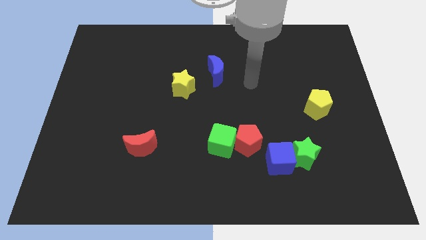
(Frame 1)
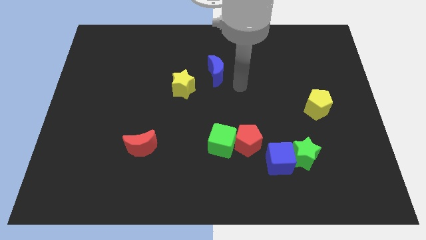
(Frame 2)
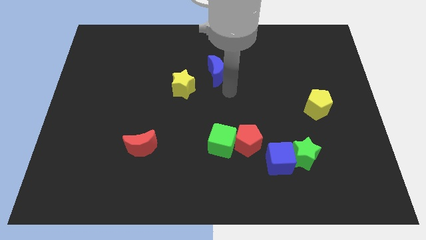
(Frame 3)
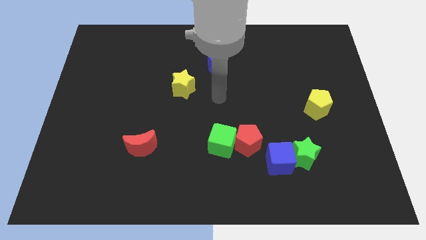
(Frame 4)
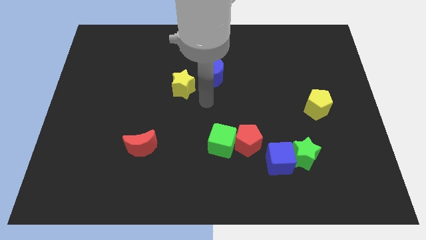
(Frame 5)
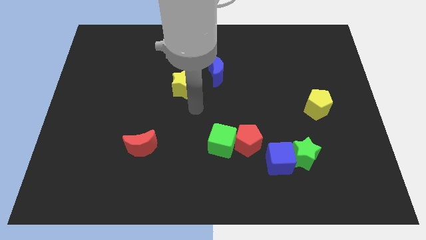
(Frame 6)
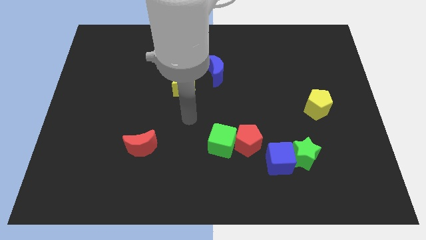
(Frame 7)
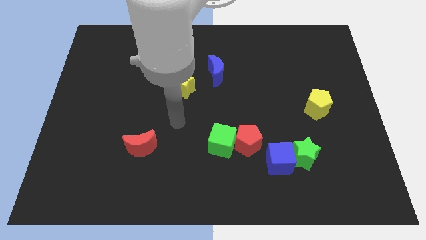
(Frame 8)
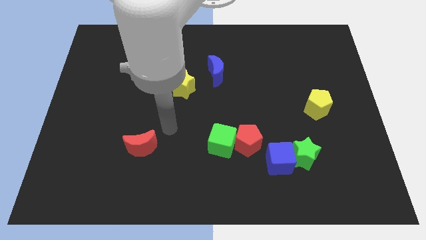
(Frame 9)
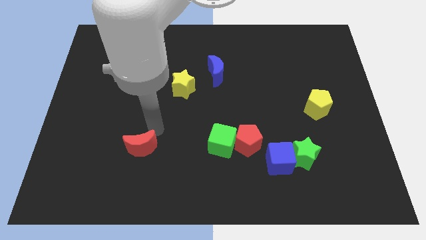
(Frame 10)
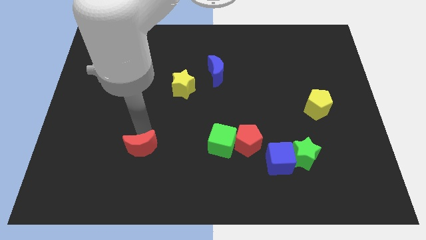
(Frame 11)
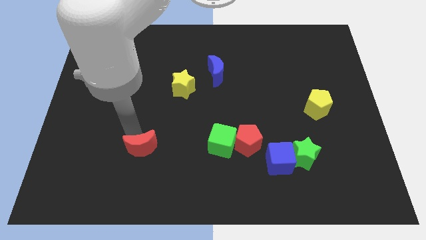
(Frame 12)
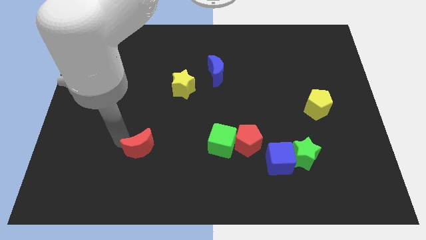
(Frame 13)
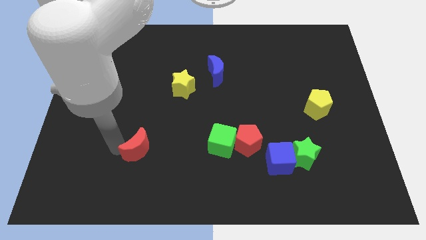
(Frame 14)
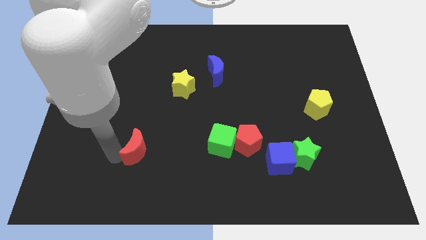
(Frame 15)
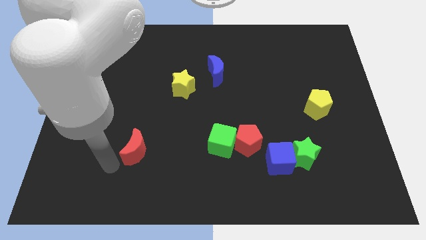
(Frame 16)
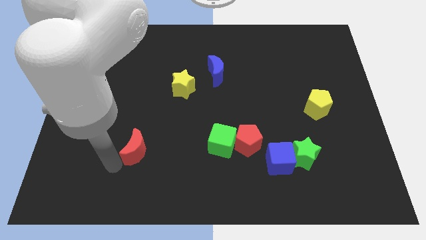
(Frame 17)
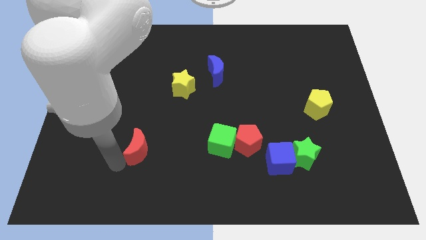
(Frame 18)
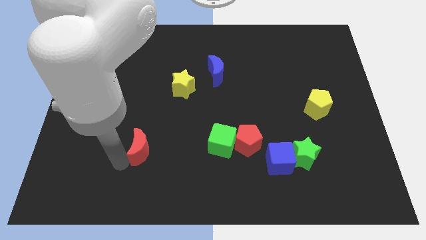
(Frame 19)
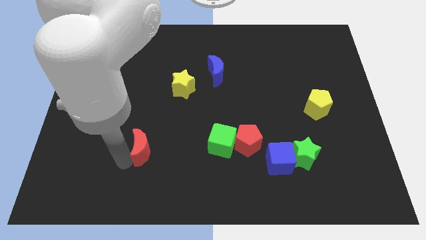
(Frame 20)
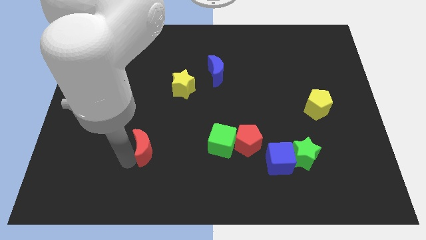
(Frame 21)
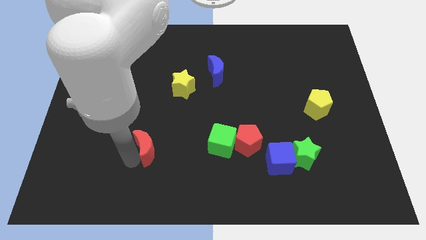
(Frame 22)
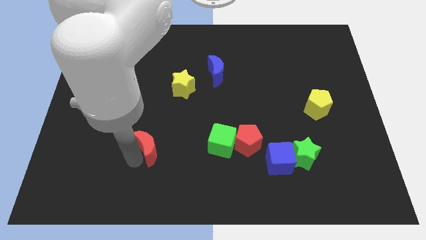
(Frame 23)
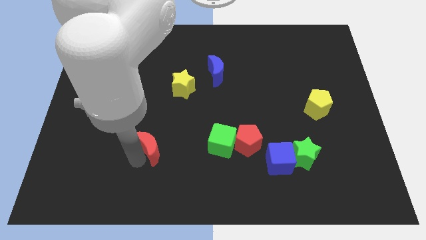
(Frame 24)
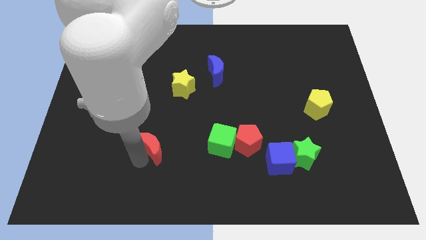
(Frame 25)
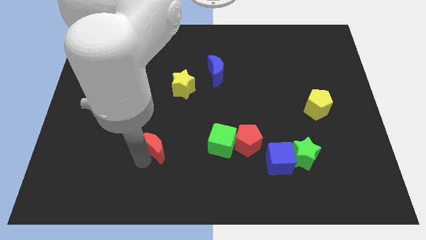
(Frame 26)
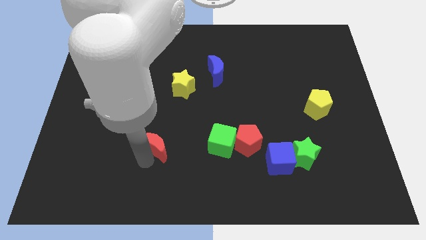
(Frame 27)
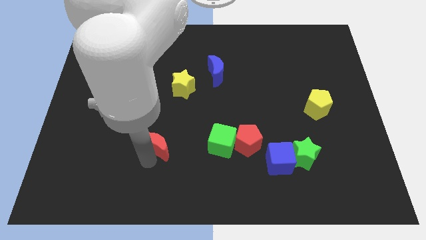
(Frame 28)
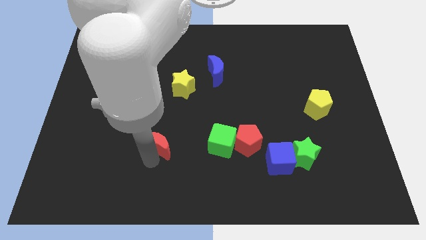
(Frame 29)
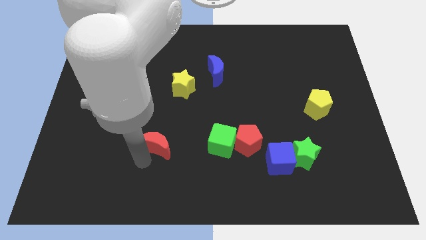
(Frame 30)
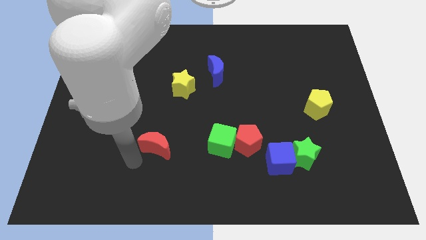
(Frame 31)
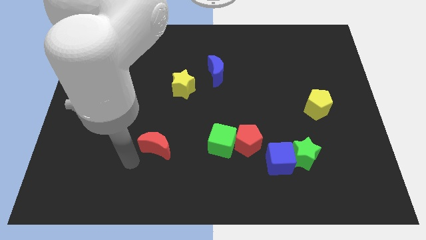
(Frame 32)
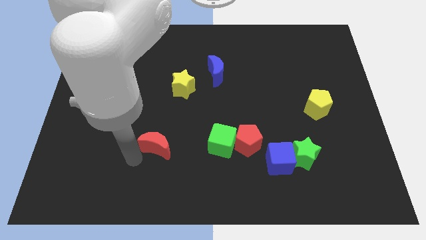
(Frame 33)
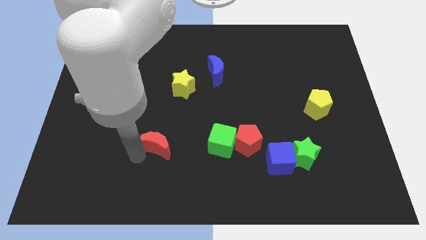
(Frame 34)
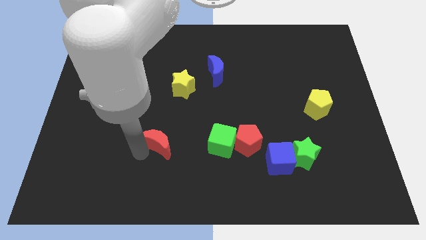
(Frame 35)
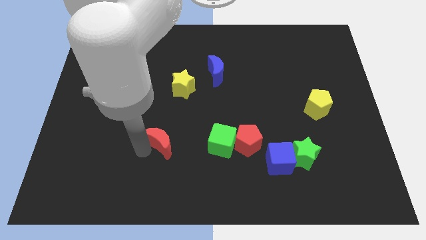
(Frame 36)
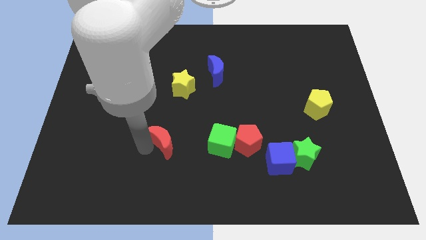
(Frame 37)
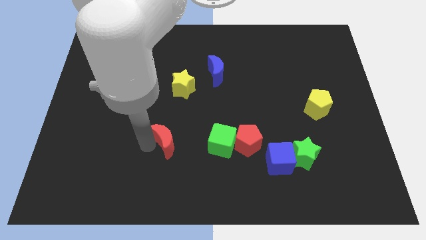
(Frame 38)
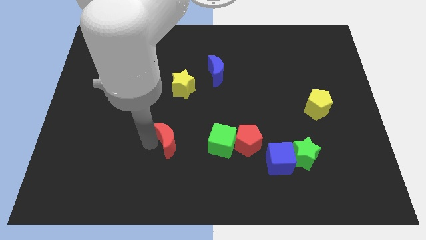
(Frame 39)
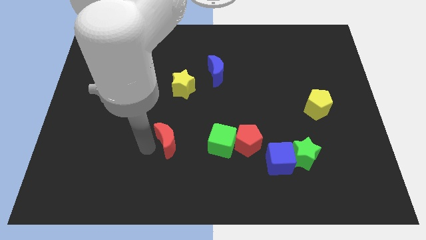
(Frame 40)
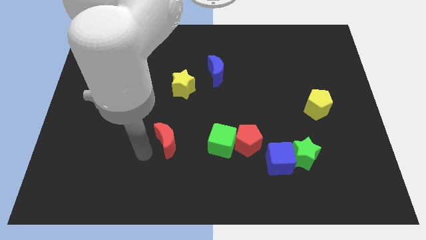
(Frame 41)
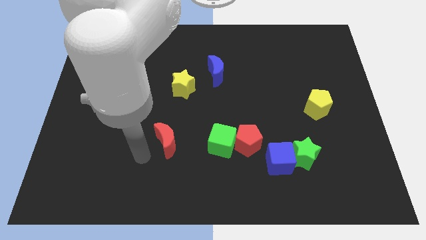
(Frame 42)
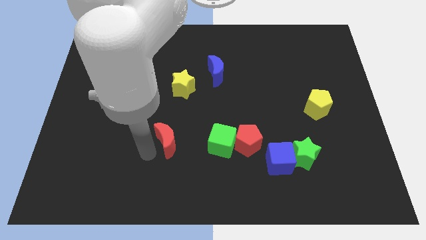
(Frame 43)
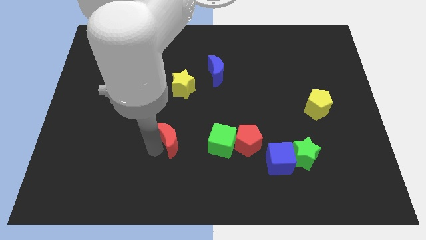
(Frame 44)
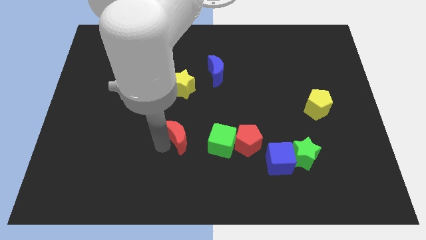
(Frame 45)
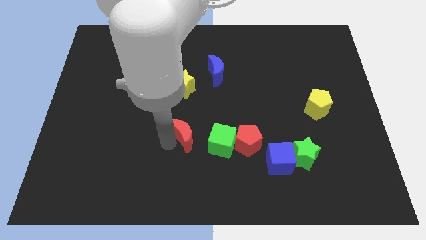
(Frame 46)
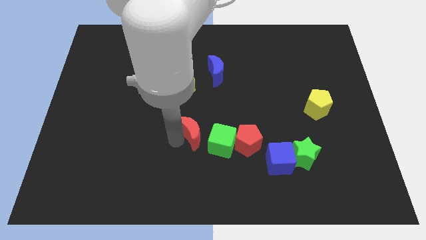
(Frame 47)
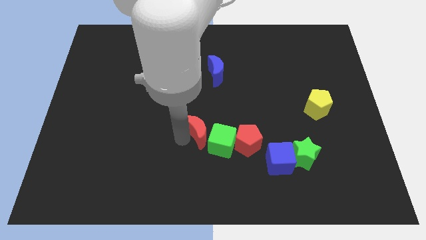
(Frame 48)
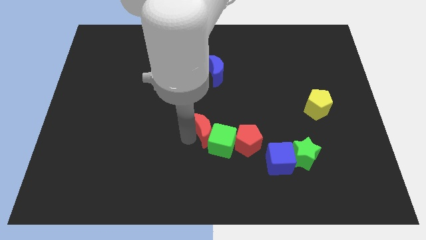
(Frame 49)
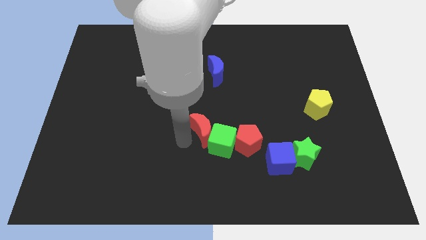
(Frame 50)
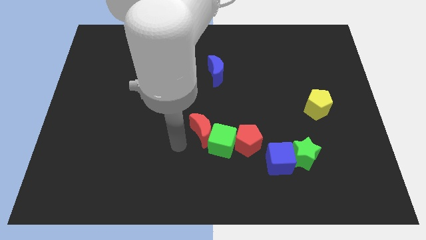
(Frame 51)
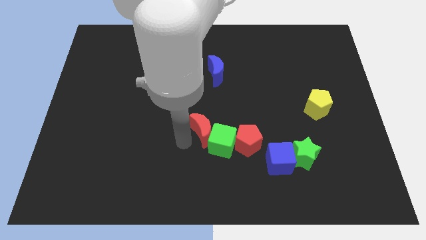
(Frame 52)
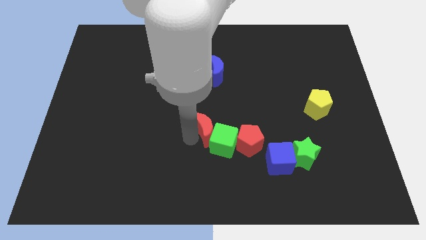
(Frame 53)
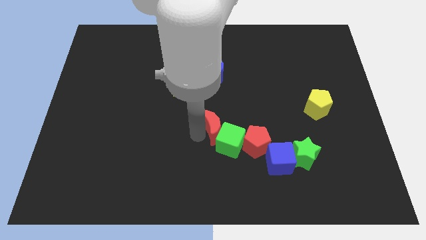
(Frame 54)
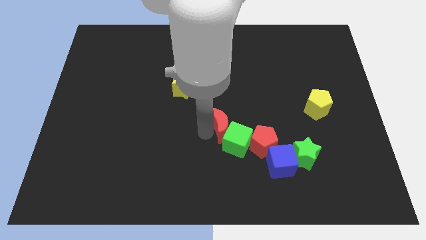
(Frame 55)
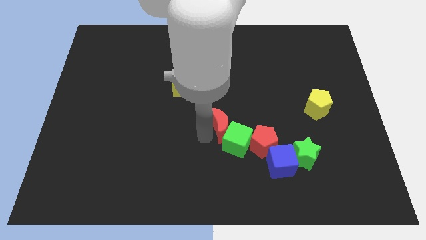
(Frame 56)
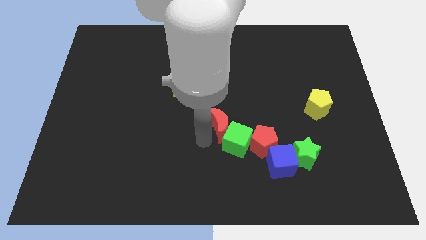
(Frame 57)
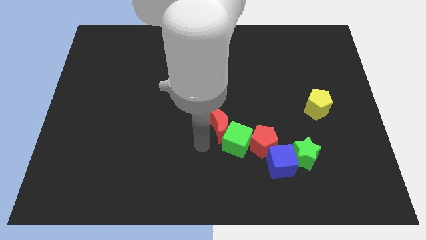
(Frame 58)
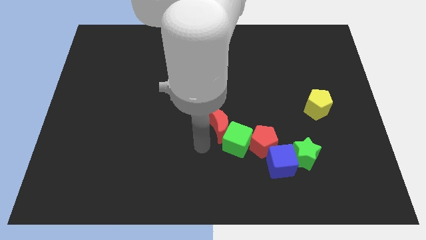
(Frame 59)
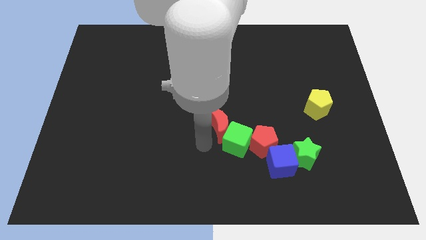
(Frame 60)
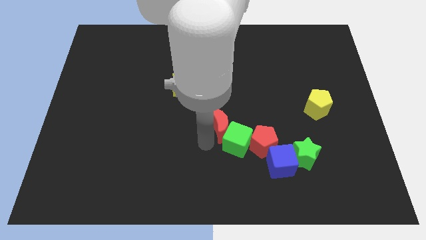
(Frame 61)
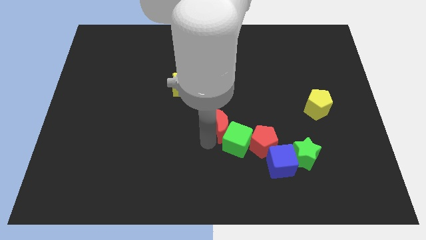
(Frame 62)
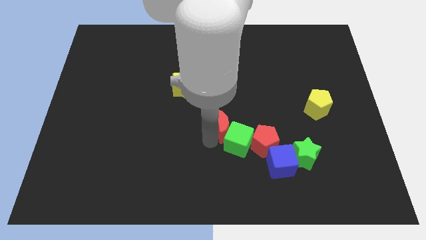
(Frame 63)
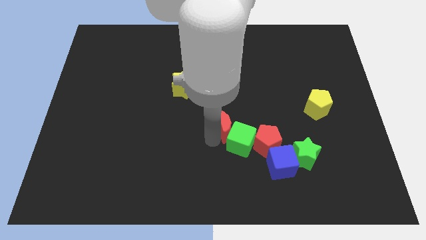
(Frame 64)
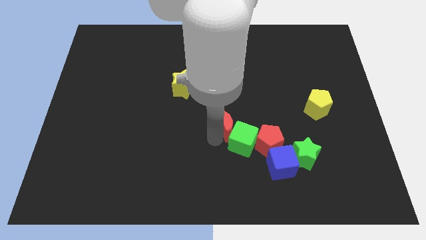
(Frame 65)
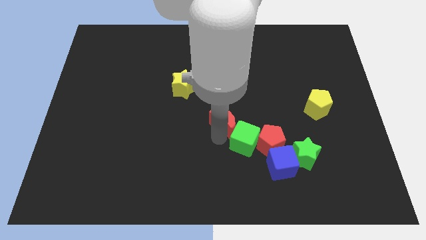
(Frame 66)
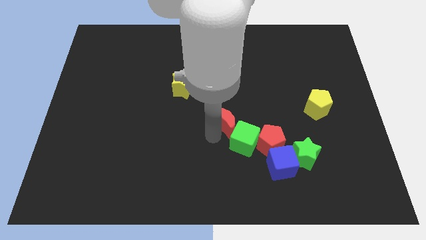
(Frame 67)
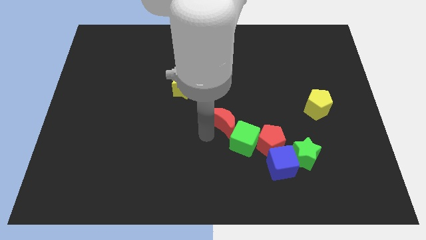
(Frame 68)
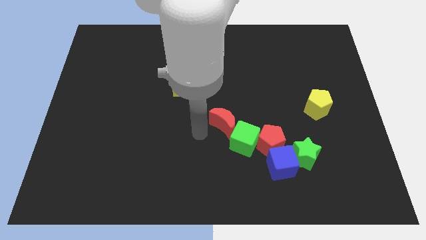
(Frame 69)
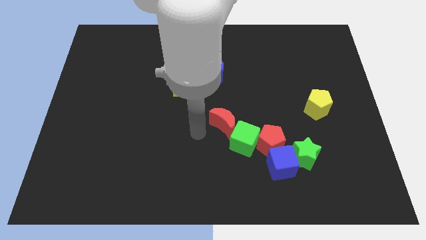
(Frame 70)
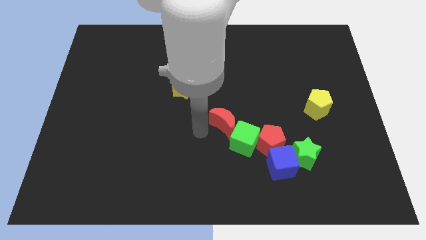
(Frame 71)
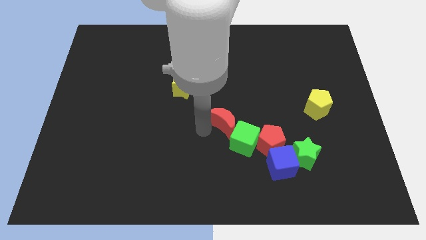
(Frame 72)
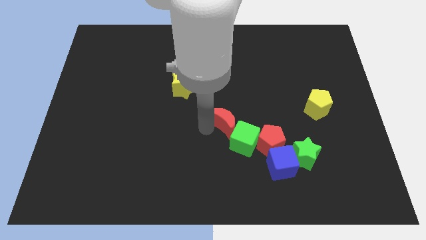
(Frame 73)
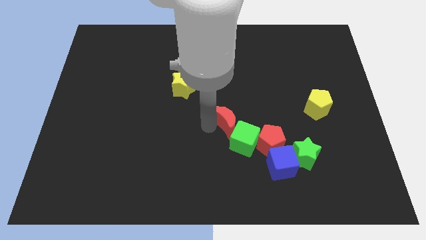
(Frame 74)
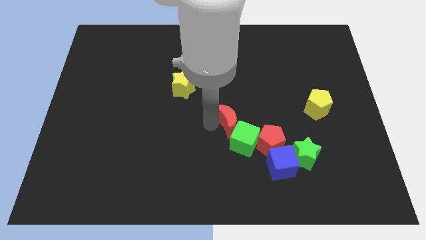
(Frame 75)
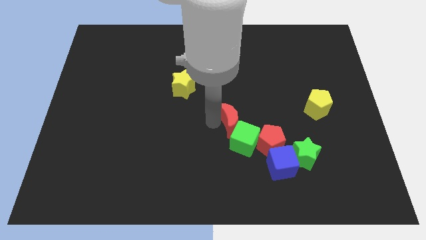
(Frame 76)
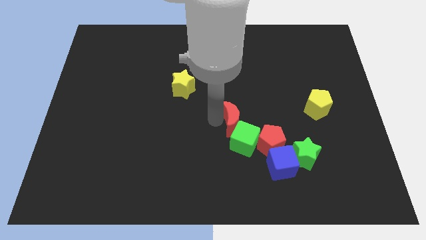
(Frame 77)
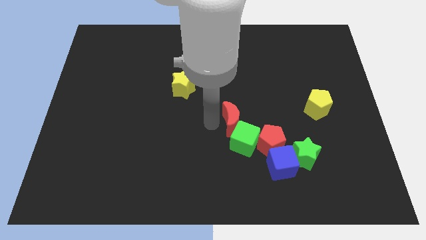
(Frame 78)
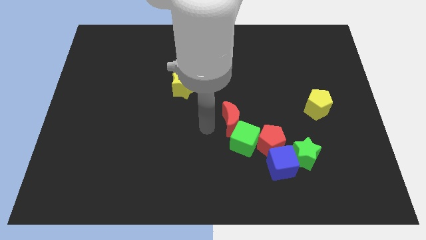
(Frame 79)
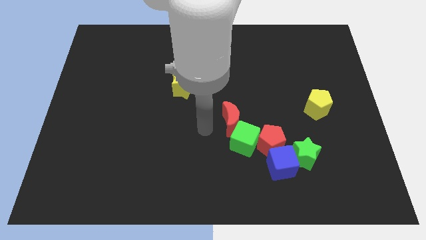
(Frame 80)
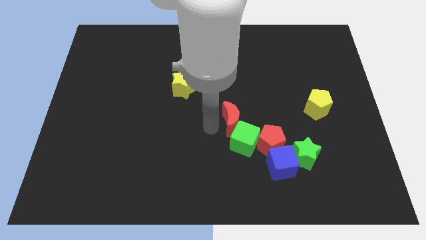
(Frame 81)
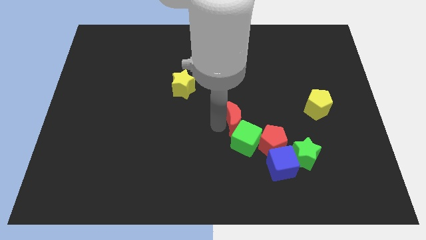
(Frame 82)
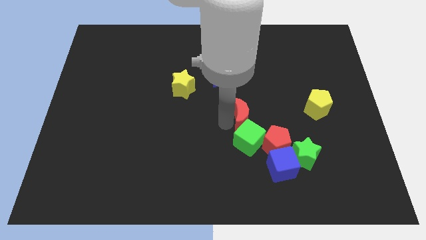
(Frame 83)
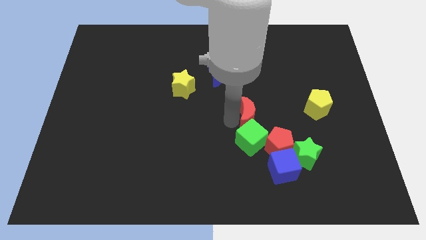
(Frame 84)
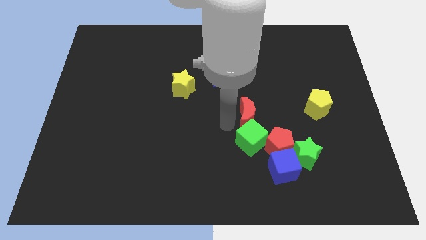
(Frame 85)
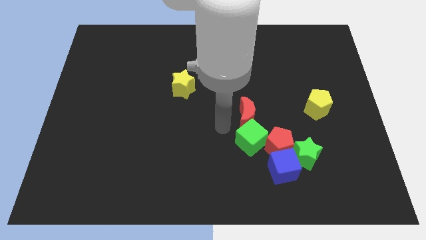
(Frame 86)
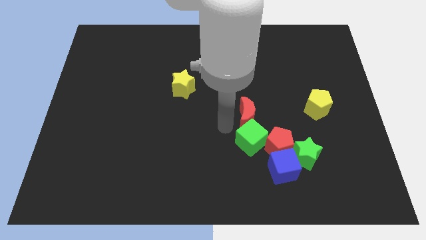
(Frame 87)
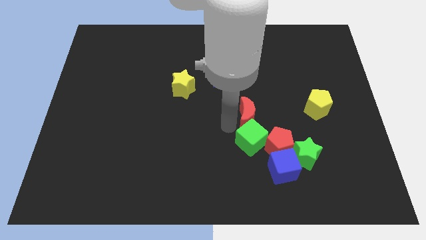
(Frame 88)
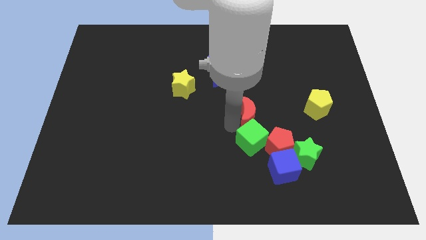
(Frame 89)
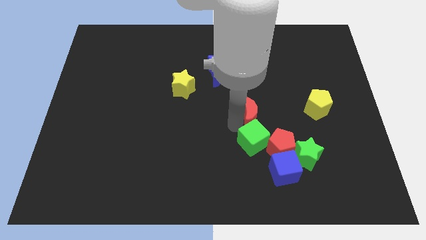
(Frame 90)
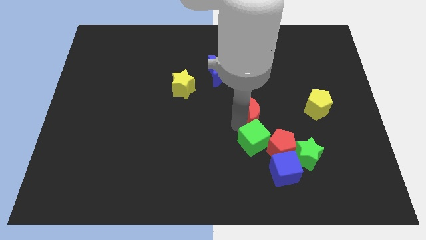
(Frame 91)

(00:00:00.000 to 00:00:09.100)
move the red moon to the left of the yellow pentagon
